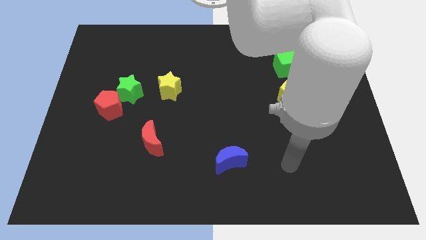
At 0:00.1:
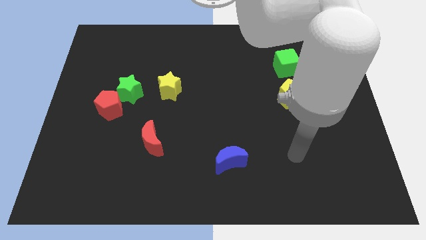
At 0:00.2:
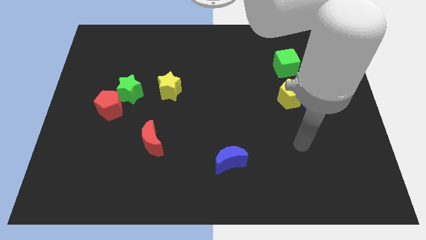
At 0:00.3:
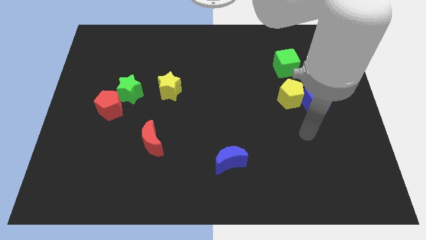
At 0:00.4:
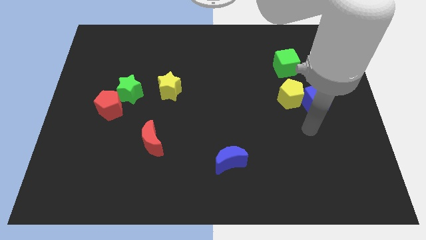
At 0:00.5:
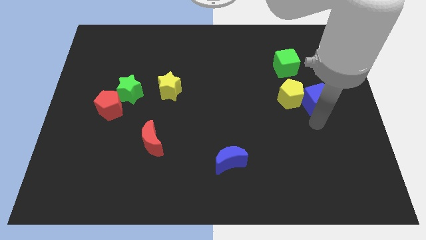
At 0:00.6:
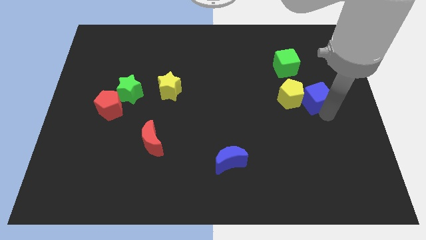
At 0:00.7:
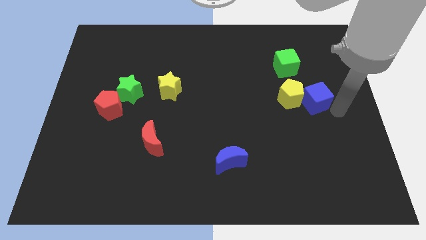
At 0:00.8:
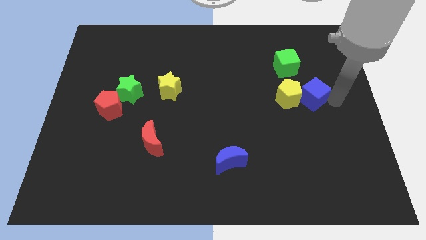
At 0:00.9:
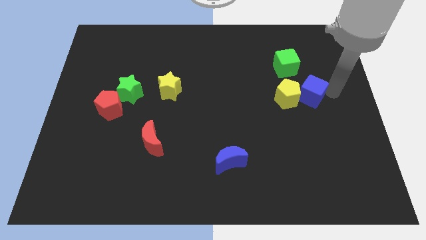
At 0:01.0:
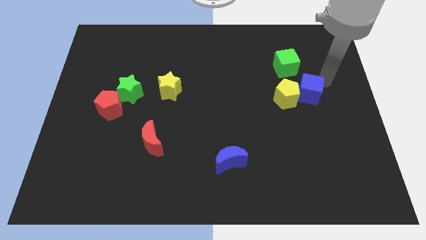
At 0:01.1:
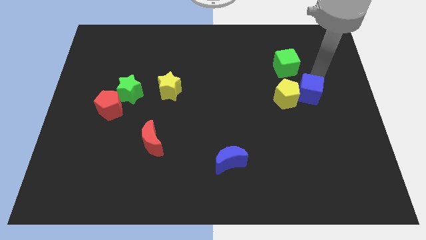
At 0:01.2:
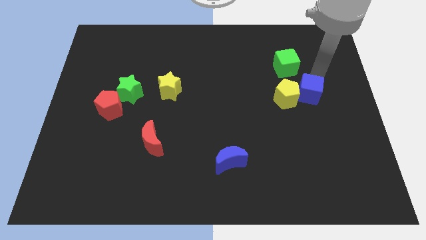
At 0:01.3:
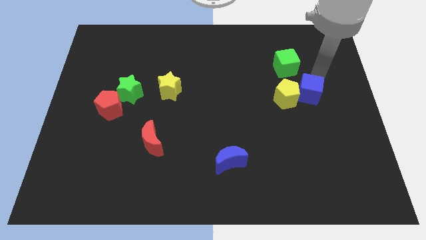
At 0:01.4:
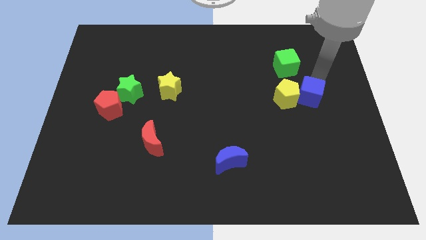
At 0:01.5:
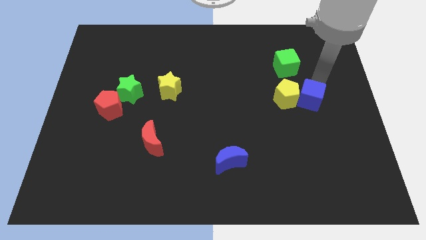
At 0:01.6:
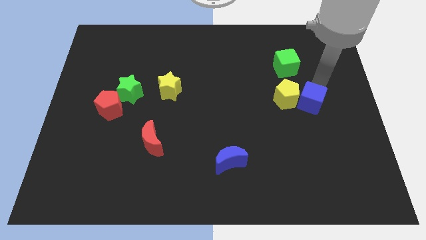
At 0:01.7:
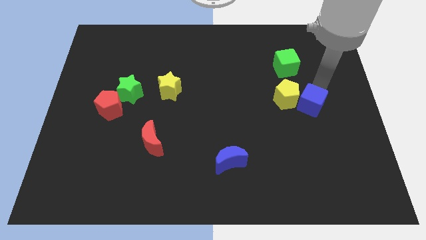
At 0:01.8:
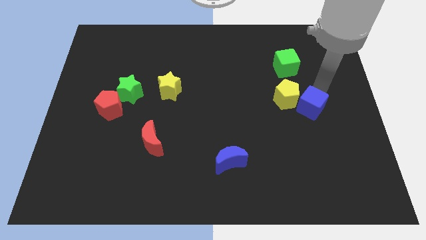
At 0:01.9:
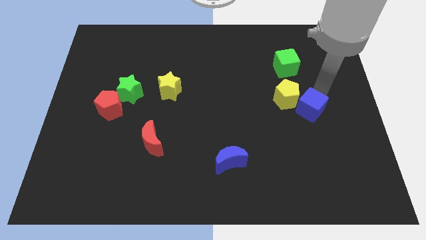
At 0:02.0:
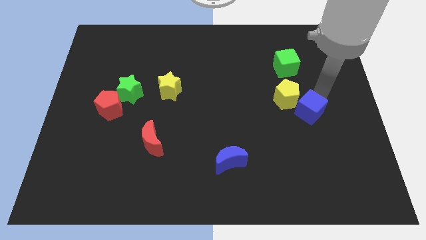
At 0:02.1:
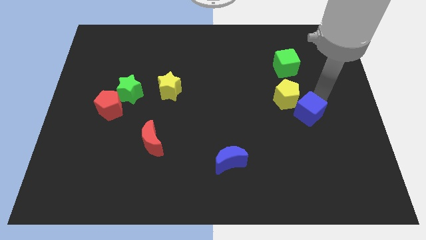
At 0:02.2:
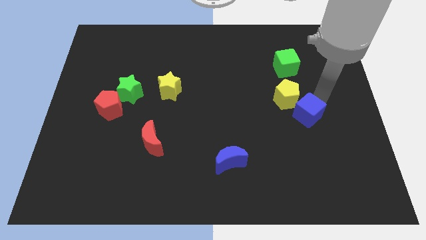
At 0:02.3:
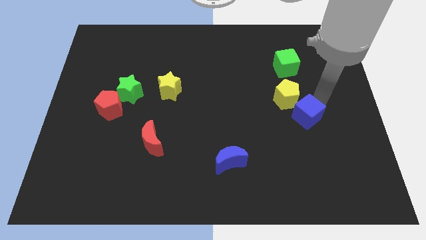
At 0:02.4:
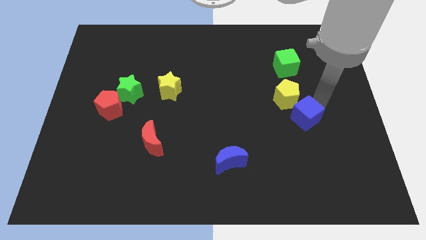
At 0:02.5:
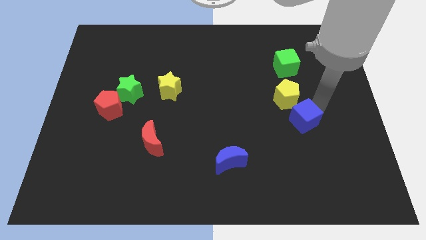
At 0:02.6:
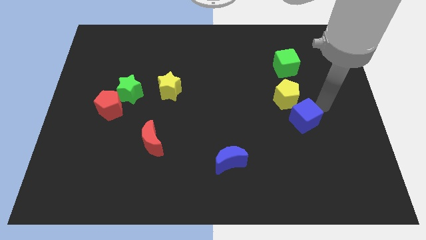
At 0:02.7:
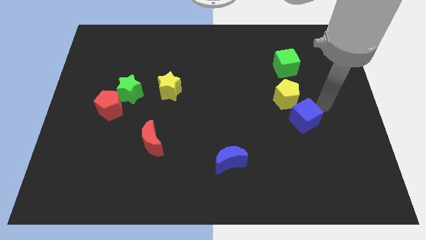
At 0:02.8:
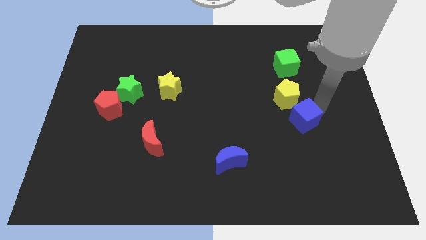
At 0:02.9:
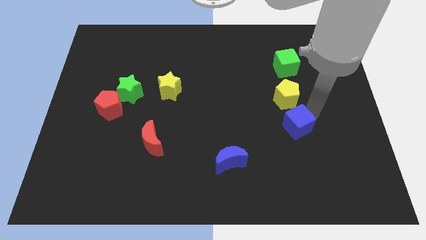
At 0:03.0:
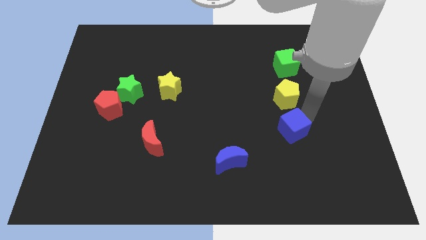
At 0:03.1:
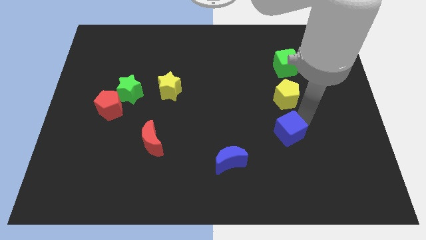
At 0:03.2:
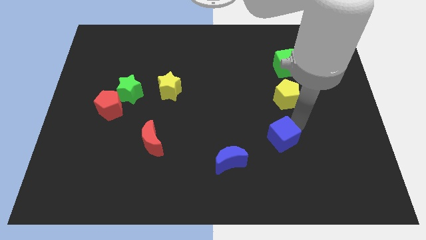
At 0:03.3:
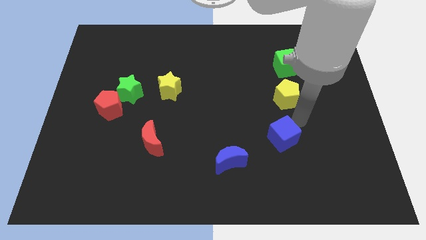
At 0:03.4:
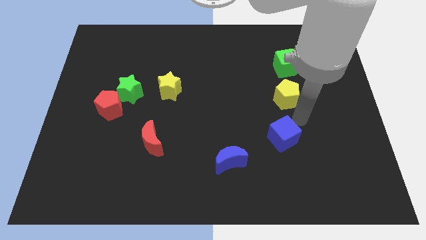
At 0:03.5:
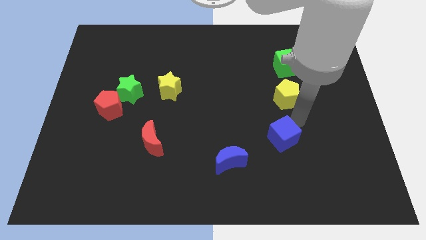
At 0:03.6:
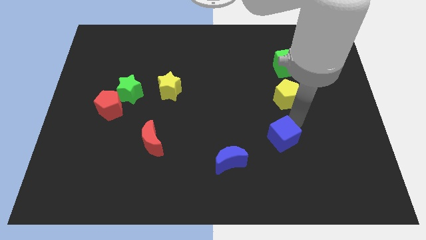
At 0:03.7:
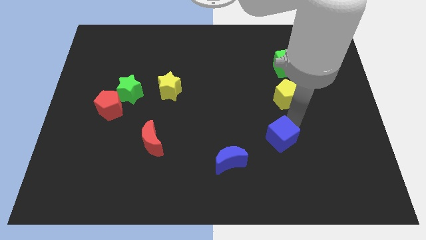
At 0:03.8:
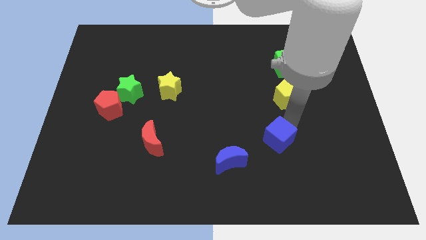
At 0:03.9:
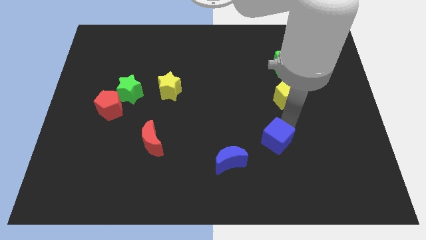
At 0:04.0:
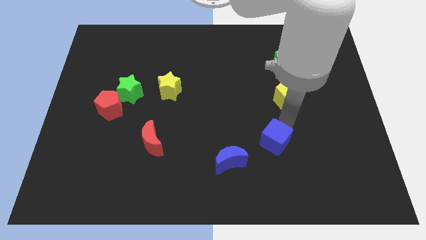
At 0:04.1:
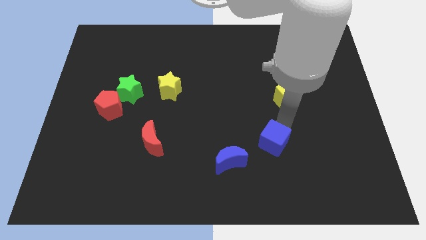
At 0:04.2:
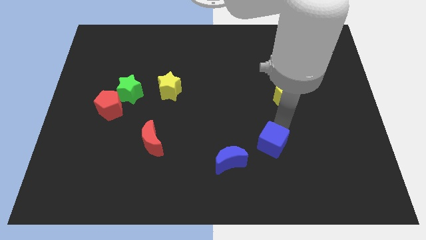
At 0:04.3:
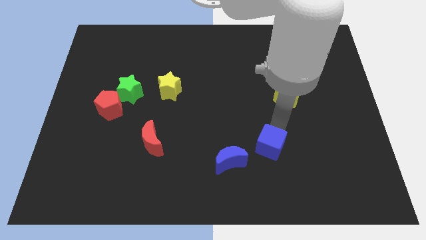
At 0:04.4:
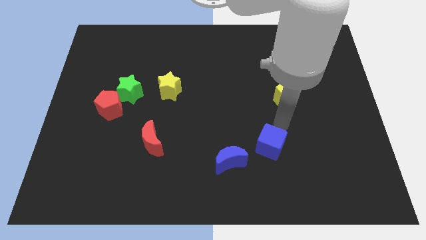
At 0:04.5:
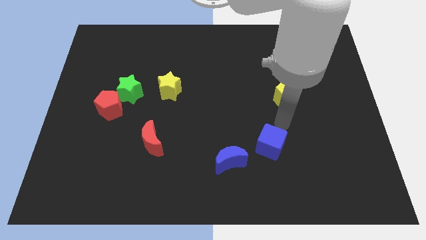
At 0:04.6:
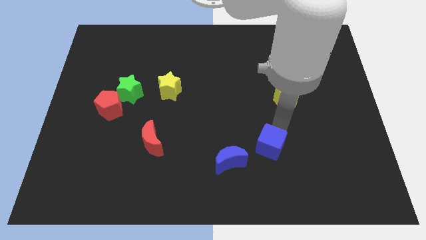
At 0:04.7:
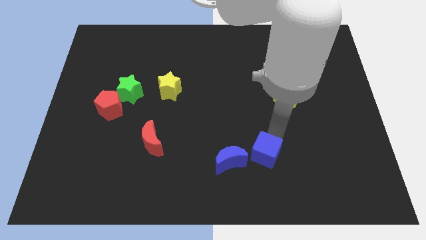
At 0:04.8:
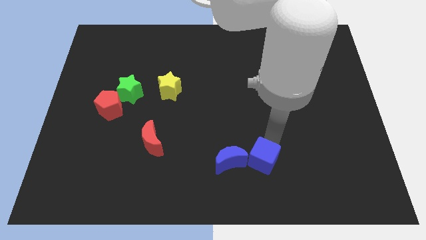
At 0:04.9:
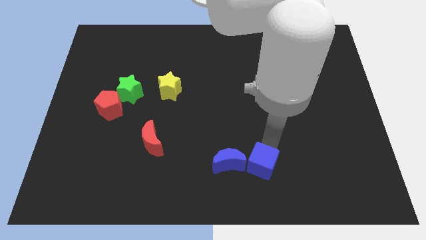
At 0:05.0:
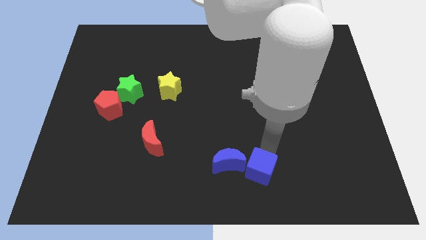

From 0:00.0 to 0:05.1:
move the blue cube to the bottom

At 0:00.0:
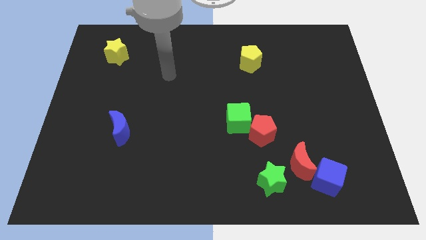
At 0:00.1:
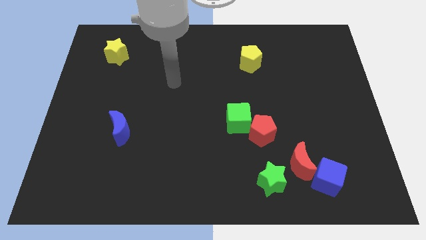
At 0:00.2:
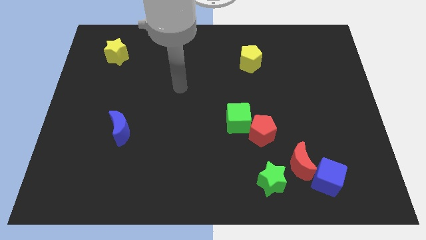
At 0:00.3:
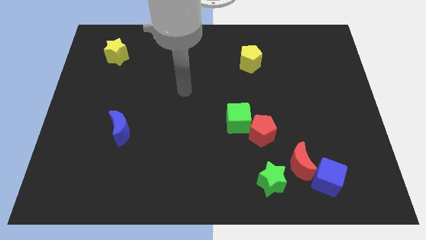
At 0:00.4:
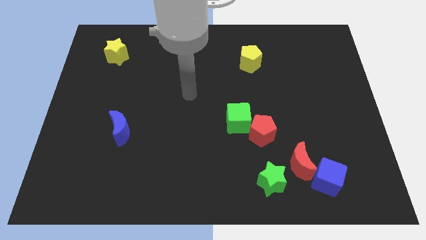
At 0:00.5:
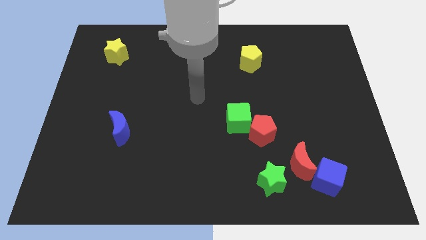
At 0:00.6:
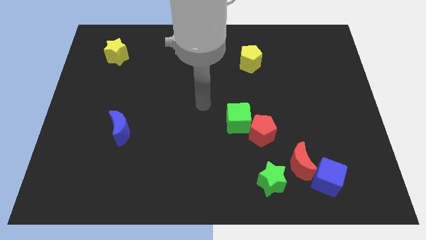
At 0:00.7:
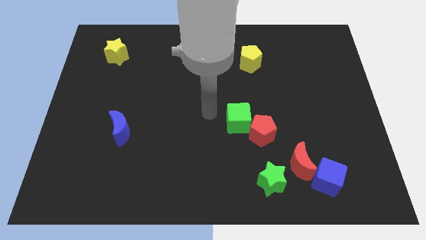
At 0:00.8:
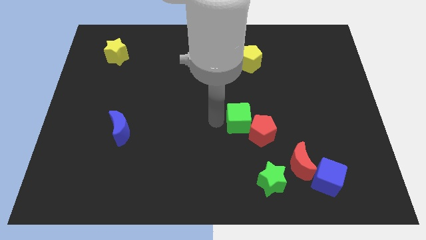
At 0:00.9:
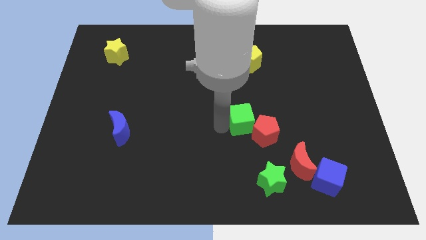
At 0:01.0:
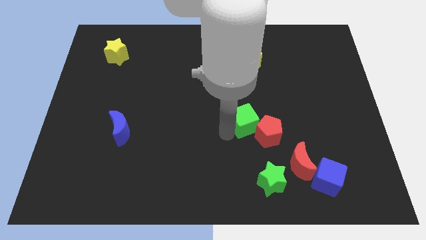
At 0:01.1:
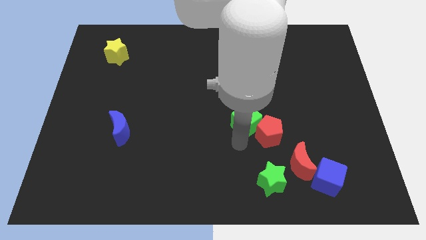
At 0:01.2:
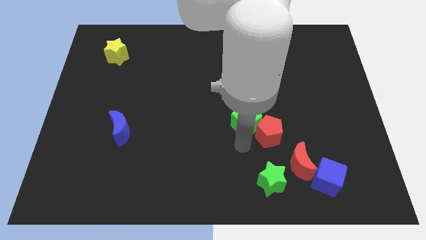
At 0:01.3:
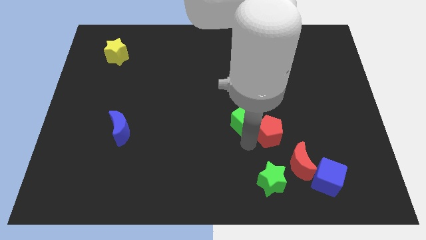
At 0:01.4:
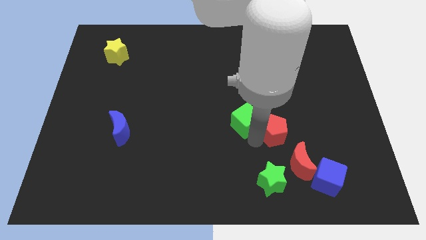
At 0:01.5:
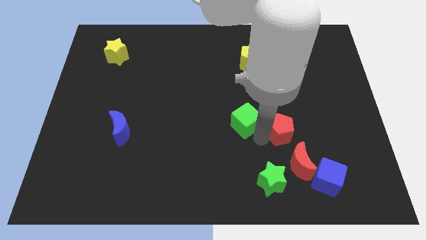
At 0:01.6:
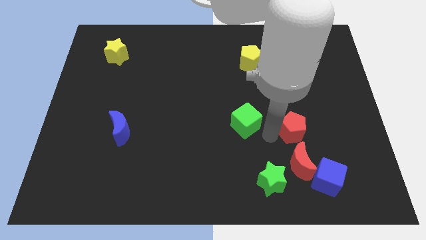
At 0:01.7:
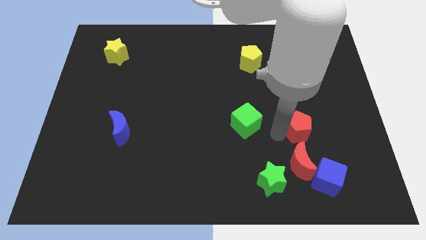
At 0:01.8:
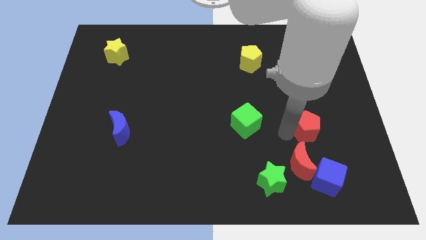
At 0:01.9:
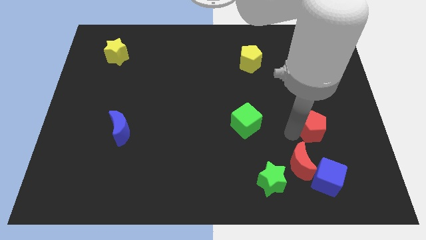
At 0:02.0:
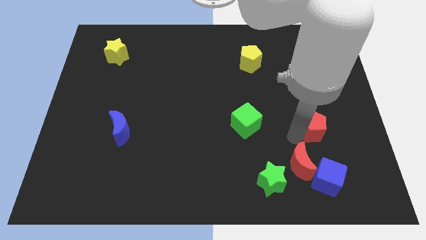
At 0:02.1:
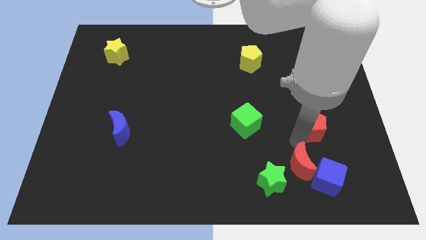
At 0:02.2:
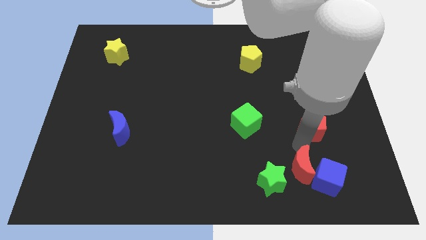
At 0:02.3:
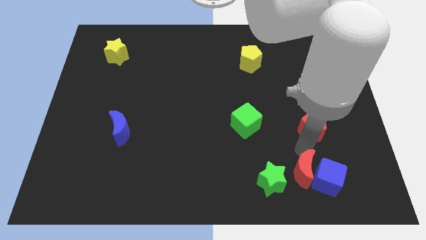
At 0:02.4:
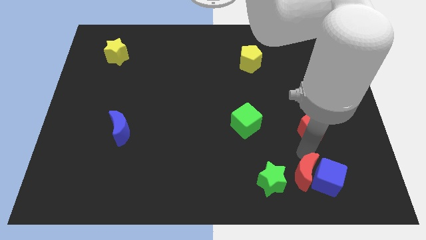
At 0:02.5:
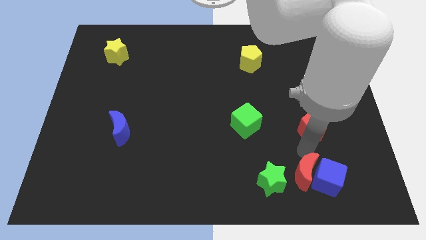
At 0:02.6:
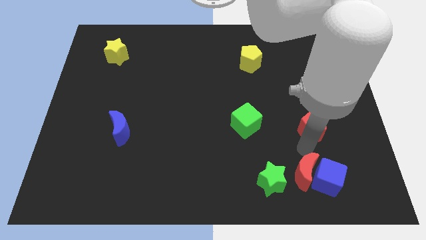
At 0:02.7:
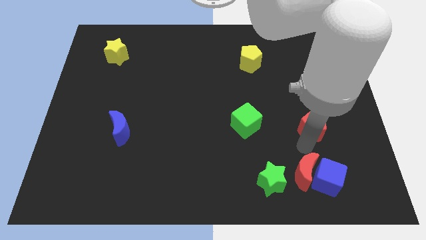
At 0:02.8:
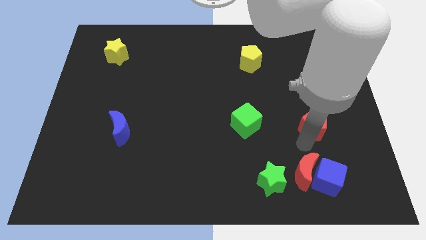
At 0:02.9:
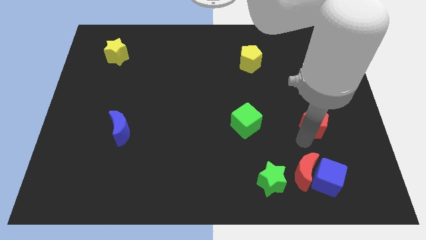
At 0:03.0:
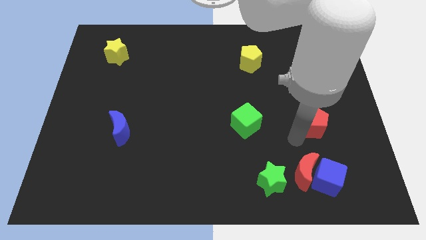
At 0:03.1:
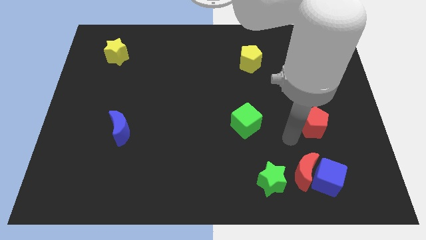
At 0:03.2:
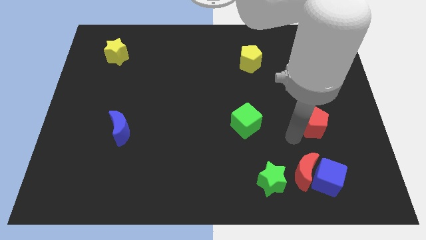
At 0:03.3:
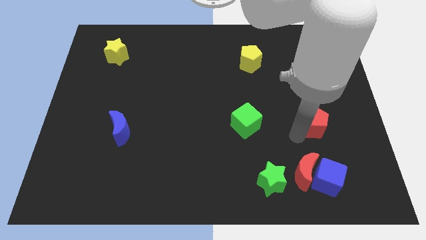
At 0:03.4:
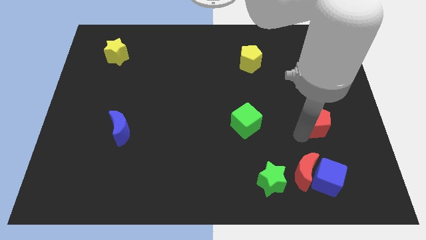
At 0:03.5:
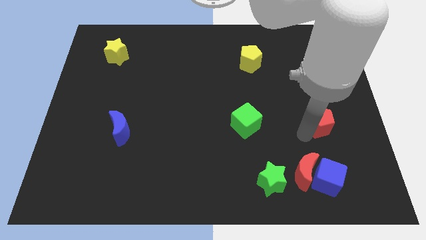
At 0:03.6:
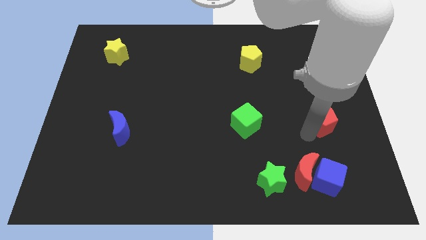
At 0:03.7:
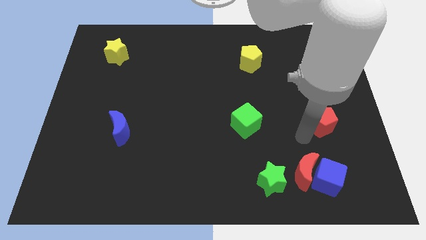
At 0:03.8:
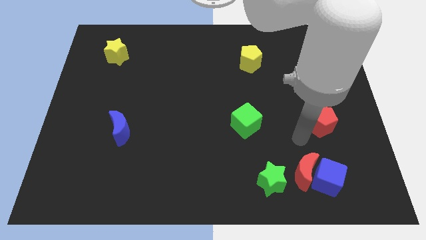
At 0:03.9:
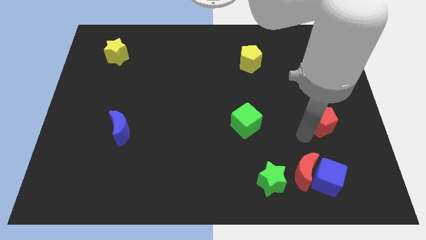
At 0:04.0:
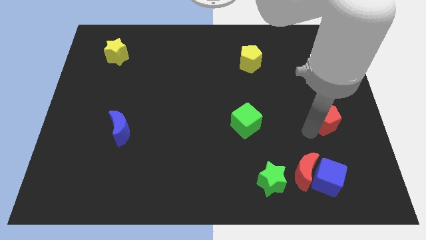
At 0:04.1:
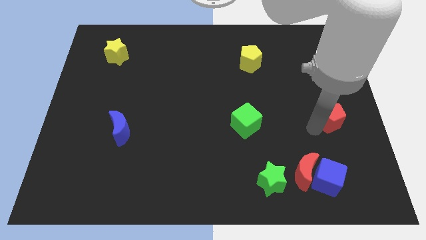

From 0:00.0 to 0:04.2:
slide the red pentagon to the right side of the board
